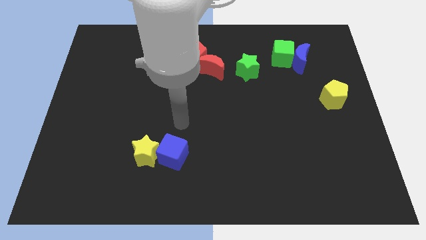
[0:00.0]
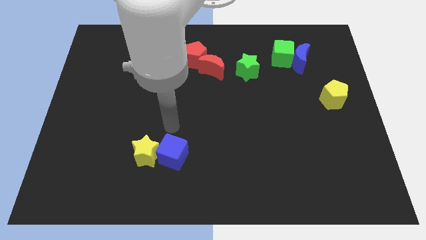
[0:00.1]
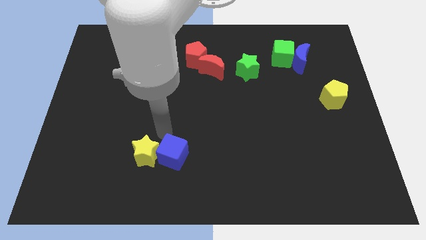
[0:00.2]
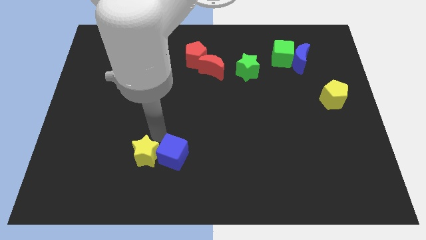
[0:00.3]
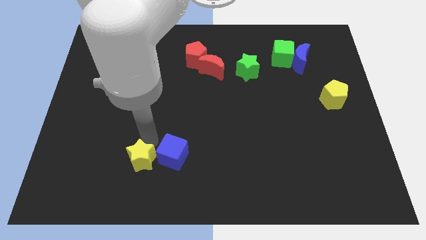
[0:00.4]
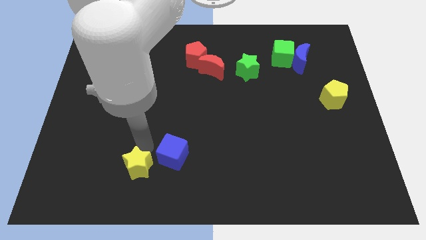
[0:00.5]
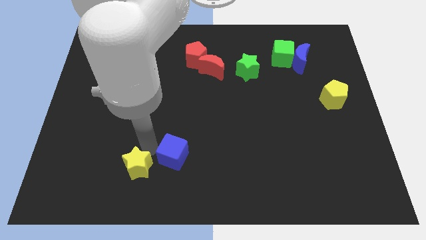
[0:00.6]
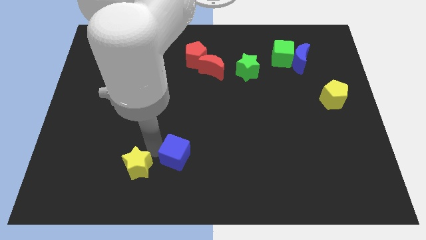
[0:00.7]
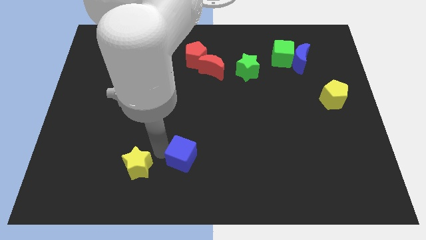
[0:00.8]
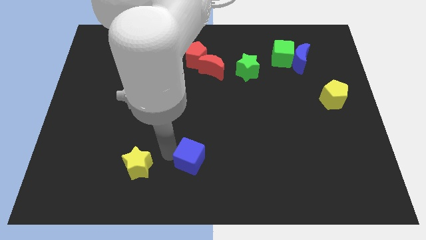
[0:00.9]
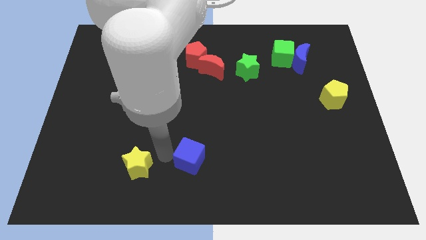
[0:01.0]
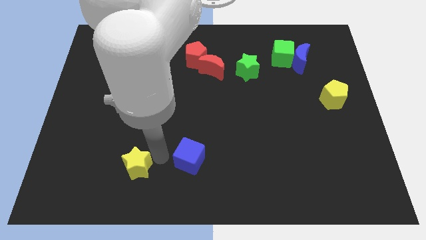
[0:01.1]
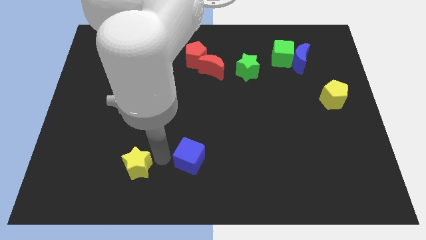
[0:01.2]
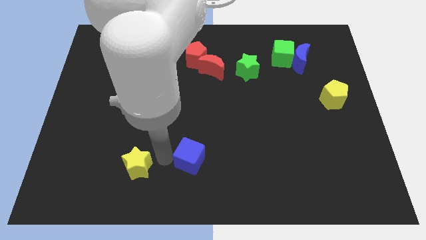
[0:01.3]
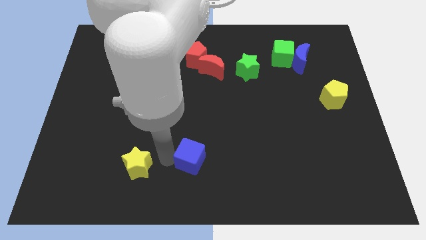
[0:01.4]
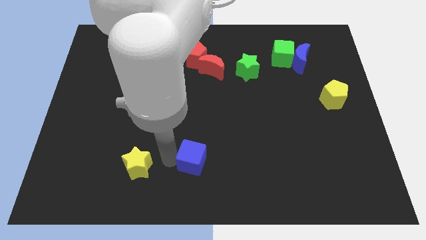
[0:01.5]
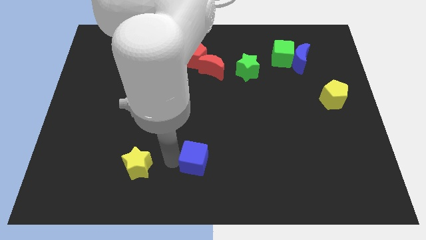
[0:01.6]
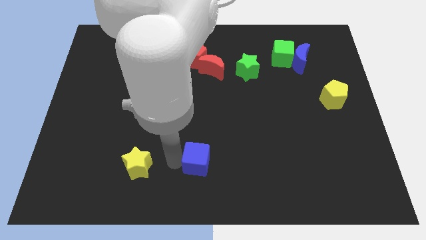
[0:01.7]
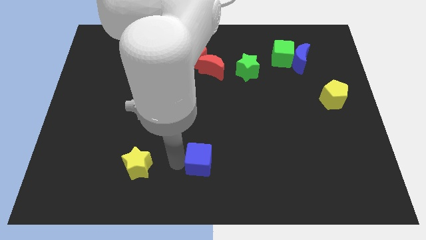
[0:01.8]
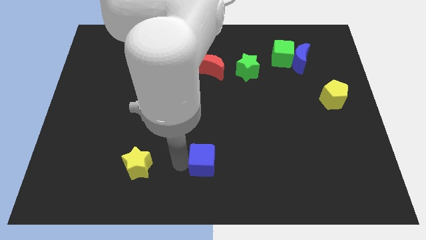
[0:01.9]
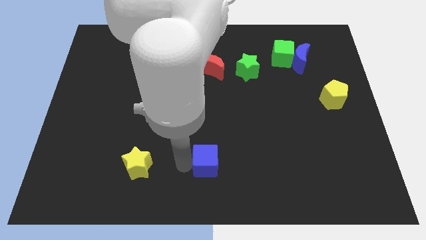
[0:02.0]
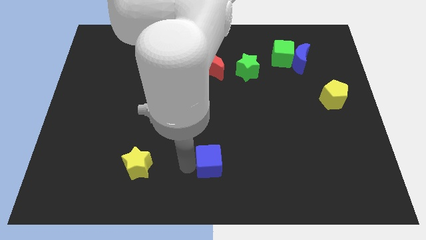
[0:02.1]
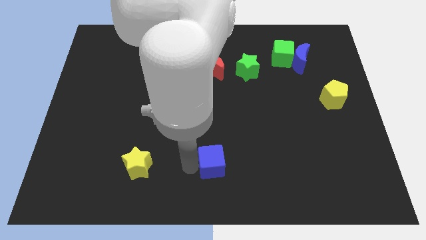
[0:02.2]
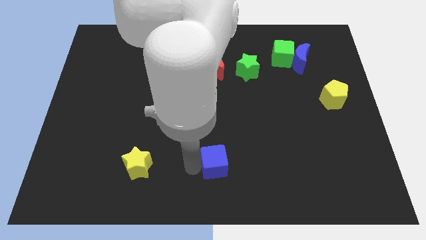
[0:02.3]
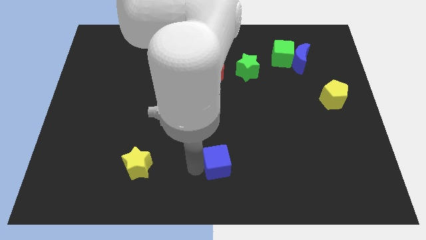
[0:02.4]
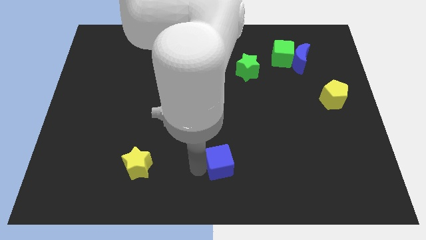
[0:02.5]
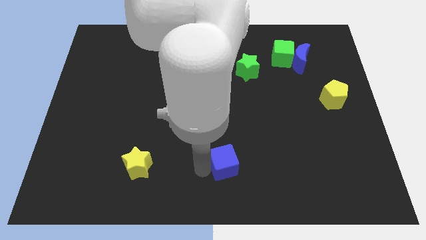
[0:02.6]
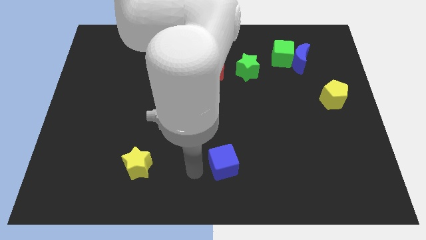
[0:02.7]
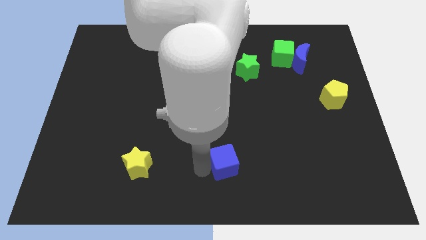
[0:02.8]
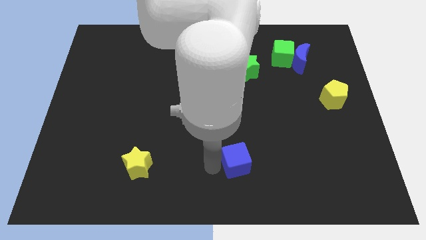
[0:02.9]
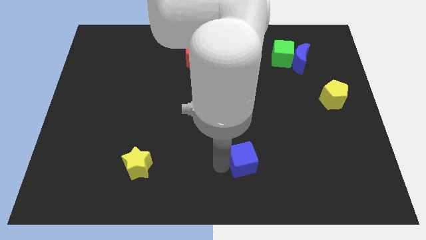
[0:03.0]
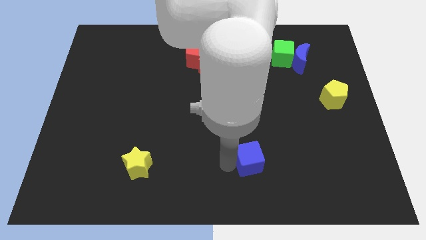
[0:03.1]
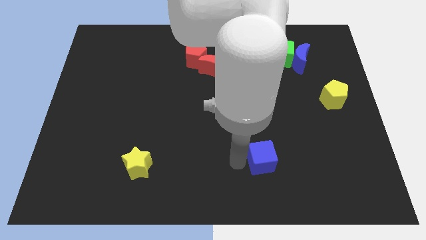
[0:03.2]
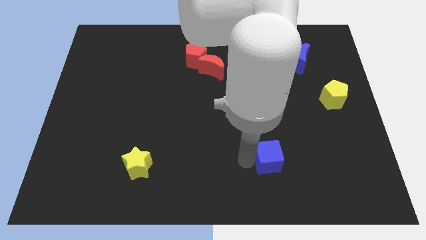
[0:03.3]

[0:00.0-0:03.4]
push the blue cube to the right

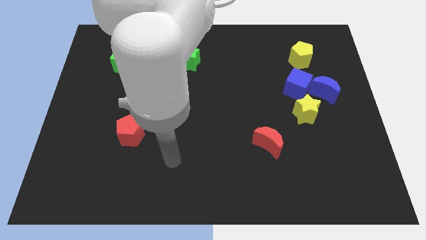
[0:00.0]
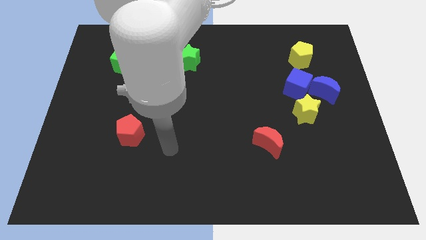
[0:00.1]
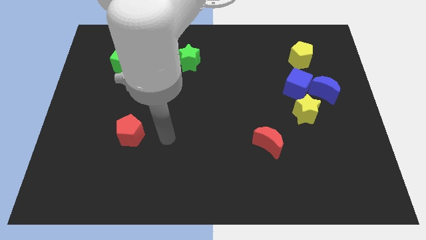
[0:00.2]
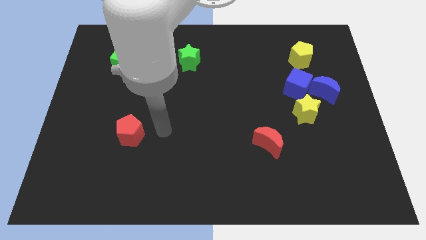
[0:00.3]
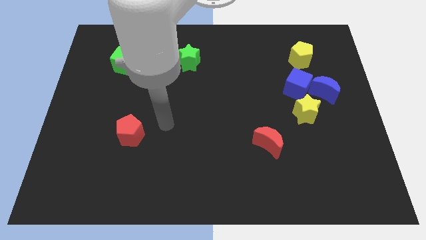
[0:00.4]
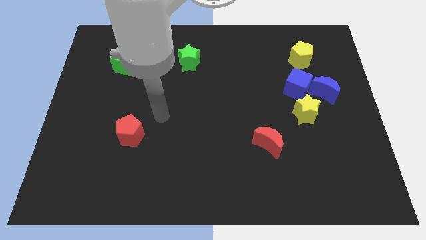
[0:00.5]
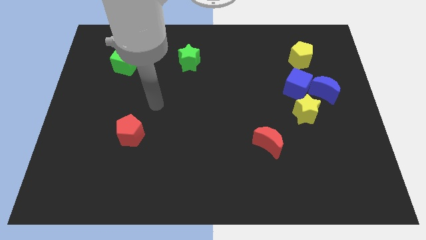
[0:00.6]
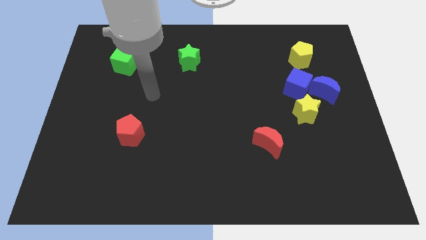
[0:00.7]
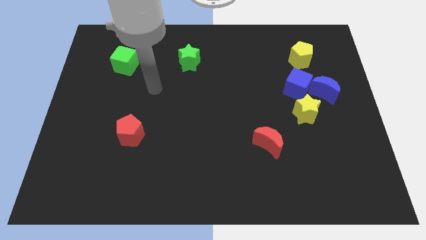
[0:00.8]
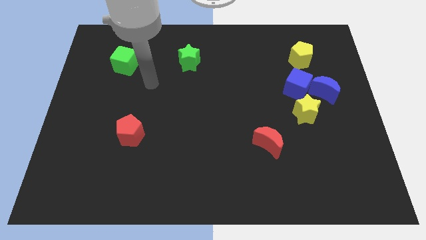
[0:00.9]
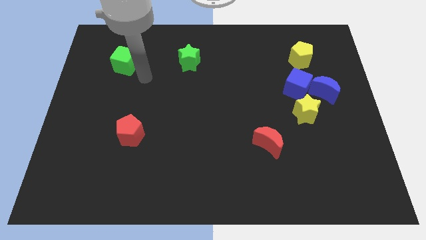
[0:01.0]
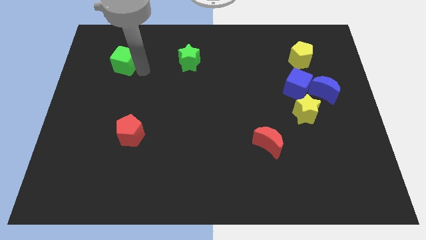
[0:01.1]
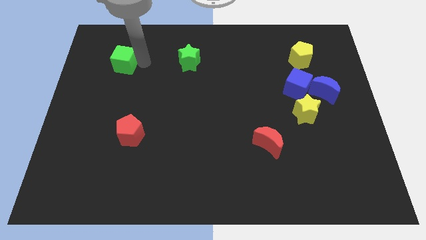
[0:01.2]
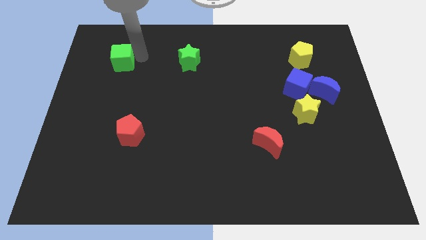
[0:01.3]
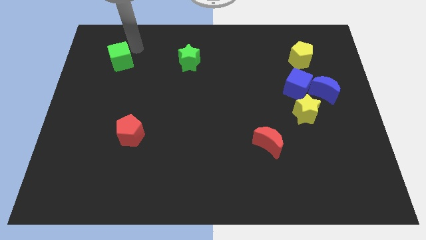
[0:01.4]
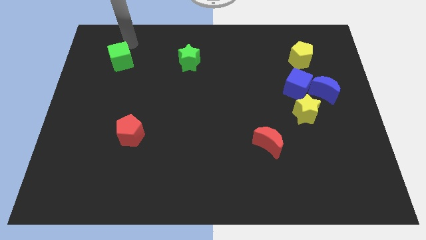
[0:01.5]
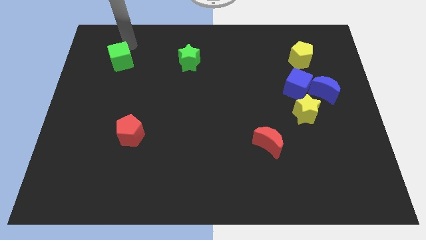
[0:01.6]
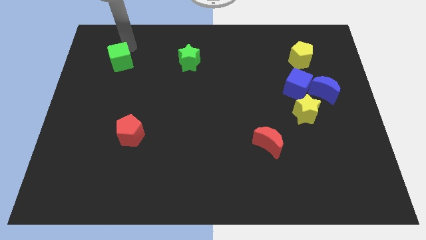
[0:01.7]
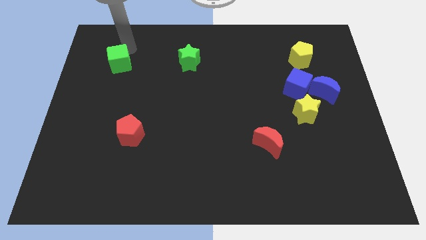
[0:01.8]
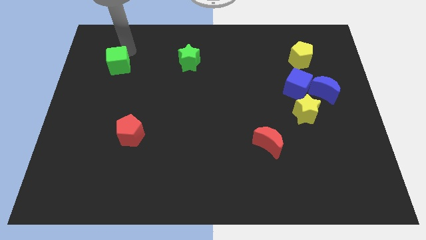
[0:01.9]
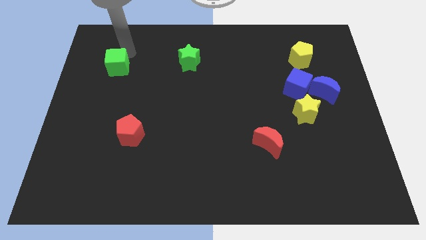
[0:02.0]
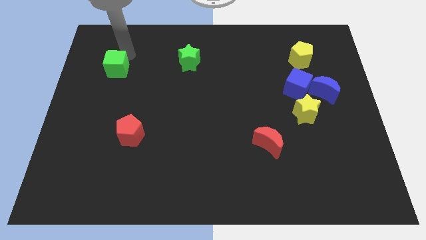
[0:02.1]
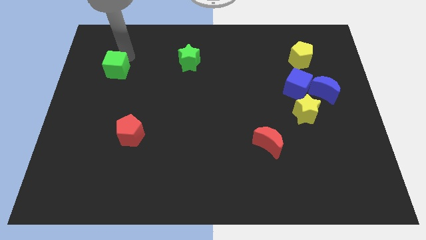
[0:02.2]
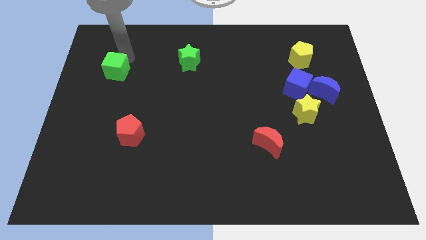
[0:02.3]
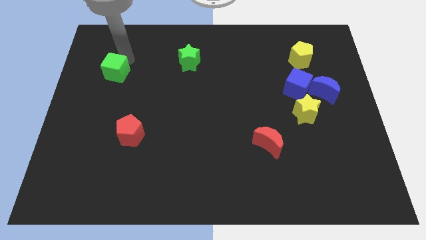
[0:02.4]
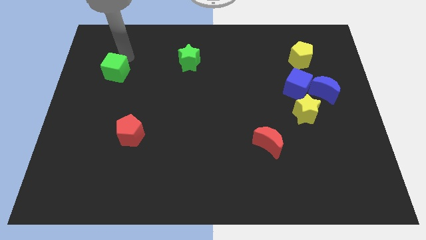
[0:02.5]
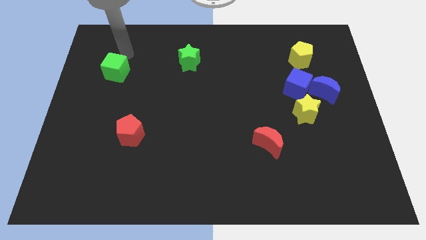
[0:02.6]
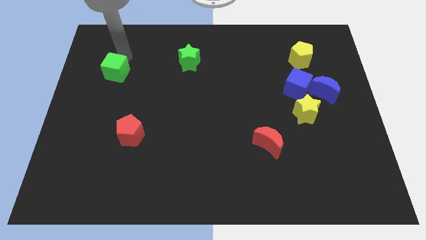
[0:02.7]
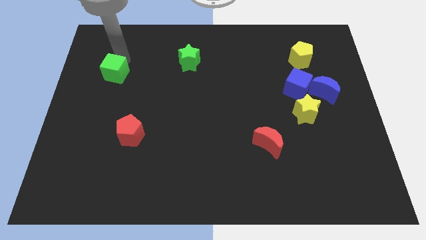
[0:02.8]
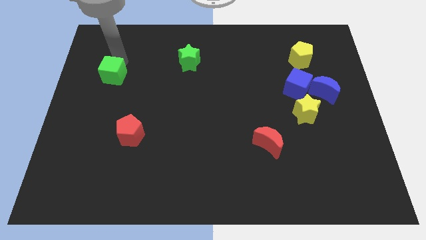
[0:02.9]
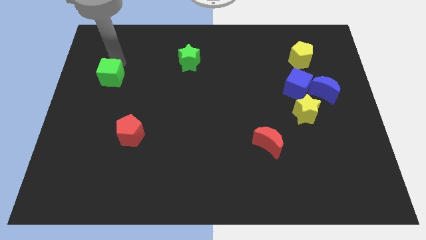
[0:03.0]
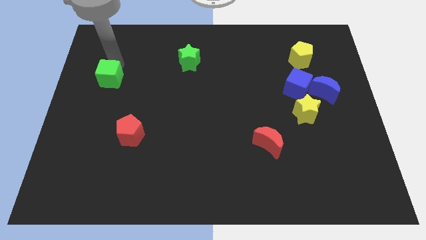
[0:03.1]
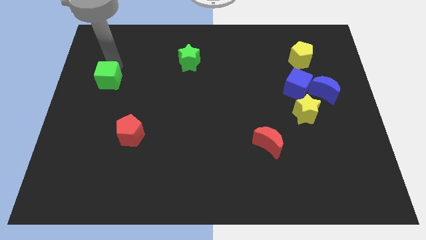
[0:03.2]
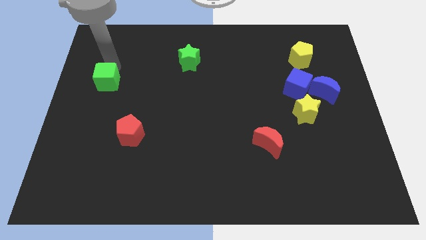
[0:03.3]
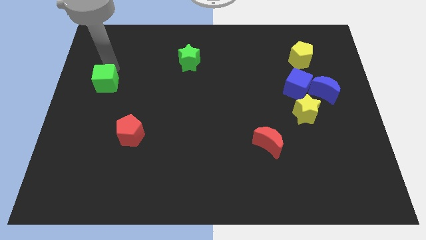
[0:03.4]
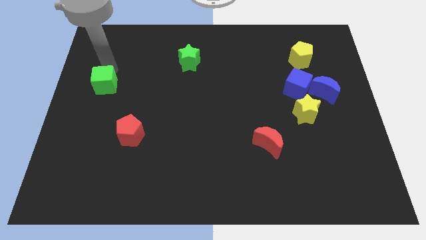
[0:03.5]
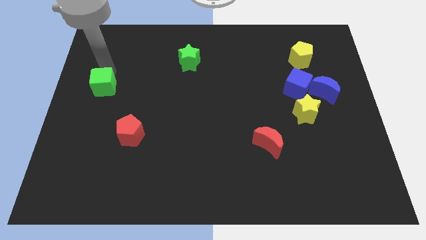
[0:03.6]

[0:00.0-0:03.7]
push the green cube somewhat down

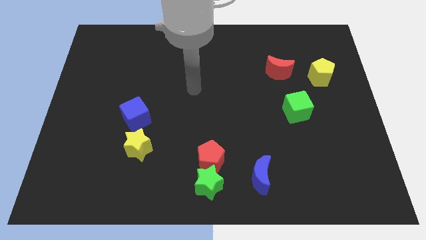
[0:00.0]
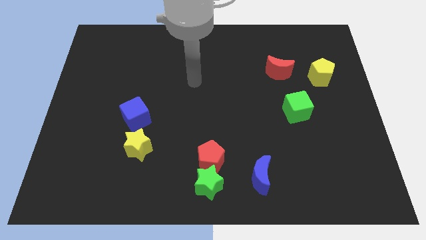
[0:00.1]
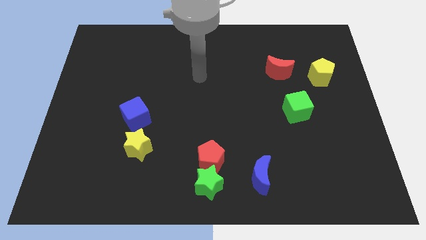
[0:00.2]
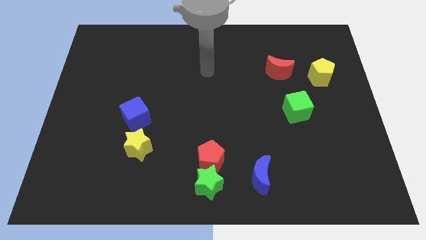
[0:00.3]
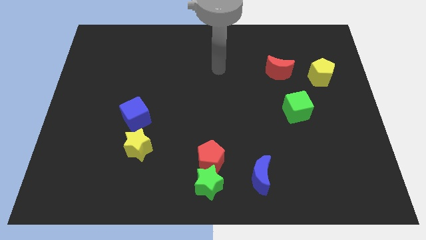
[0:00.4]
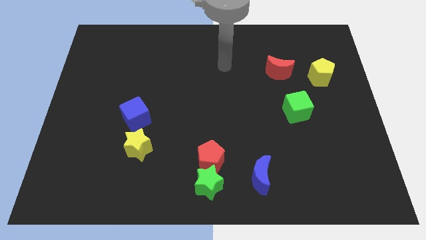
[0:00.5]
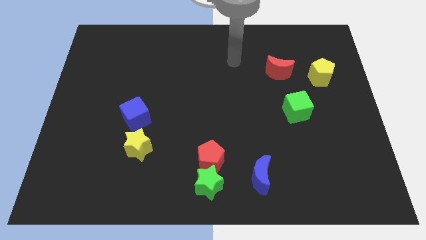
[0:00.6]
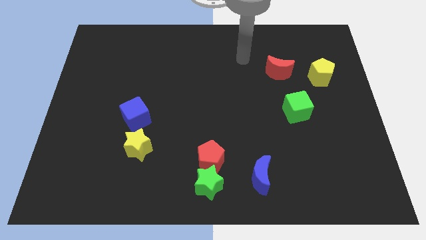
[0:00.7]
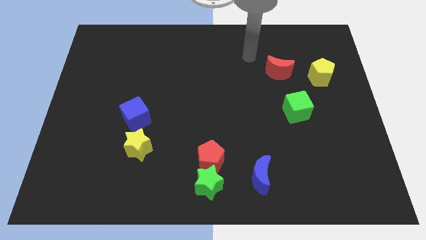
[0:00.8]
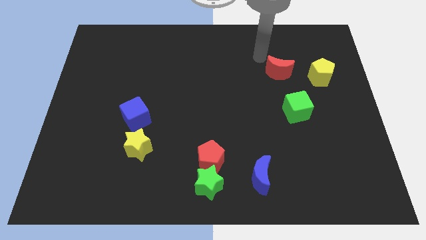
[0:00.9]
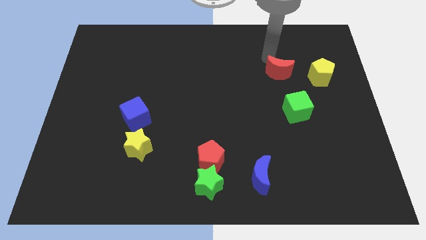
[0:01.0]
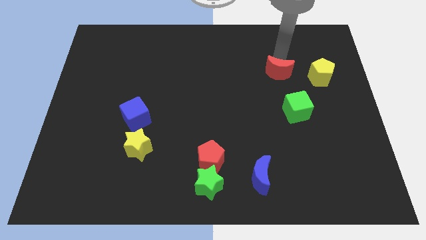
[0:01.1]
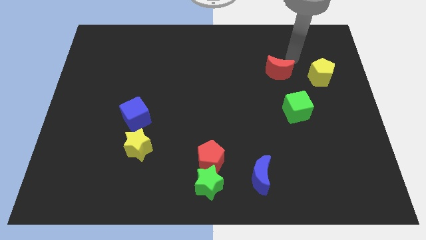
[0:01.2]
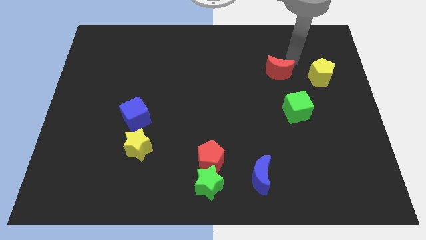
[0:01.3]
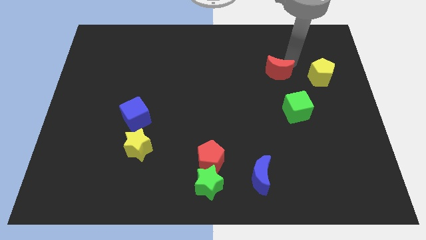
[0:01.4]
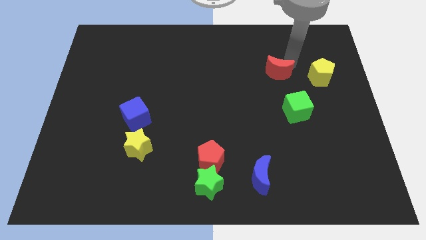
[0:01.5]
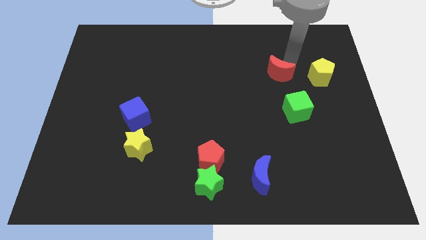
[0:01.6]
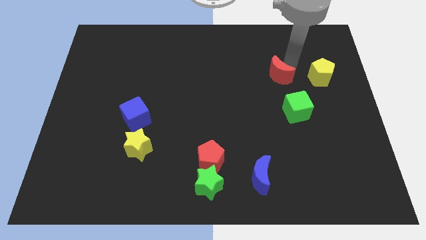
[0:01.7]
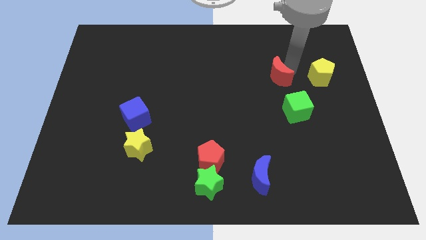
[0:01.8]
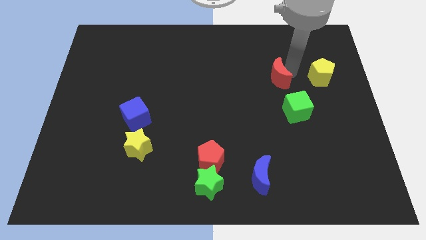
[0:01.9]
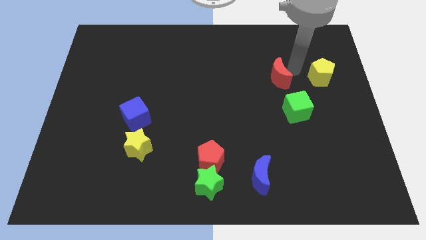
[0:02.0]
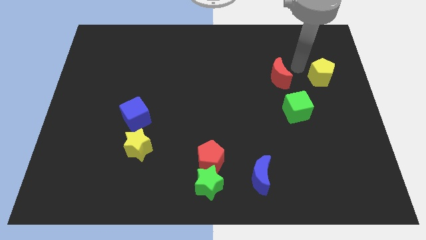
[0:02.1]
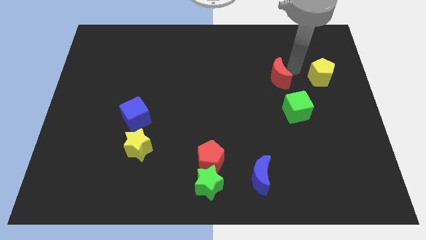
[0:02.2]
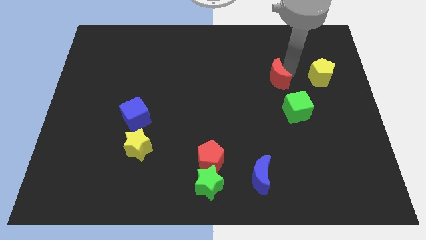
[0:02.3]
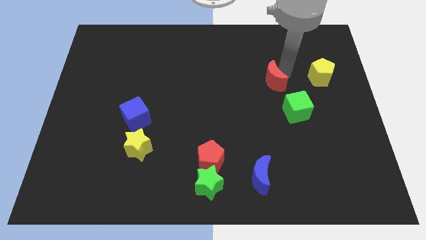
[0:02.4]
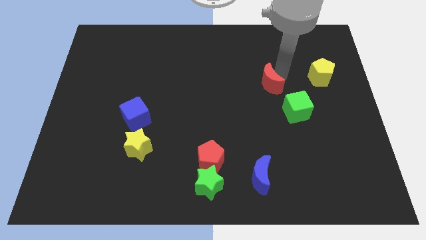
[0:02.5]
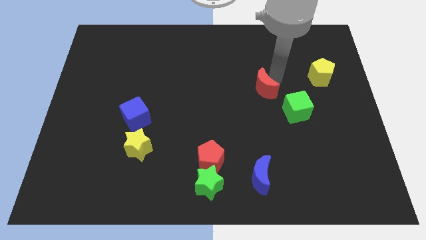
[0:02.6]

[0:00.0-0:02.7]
move the red moon down and to the left a bit
